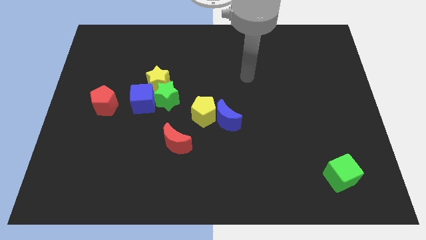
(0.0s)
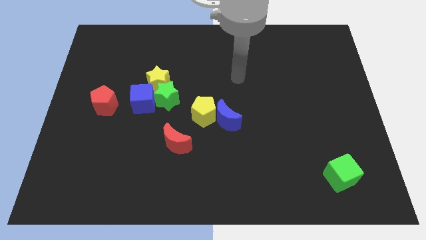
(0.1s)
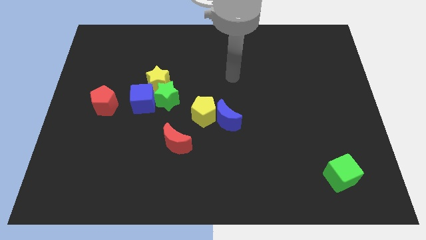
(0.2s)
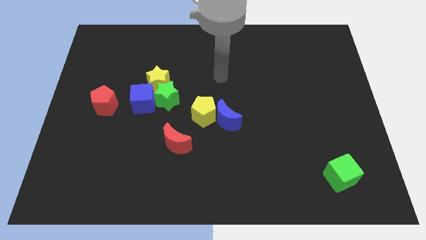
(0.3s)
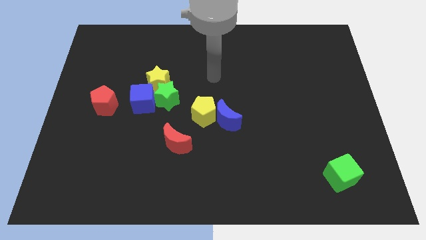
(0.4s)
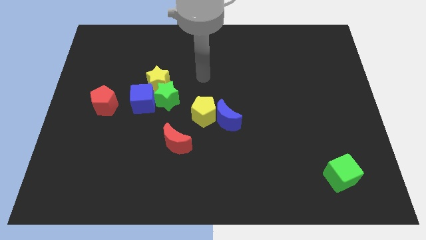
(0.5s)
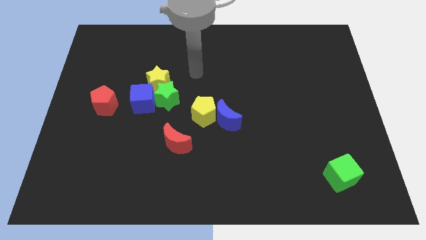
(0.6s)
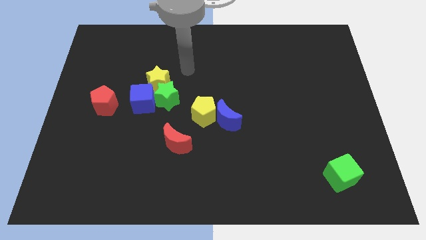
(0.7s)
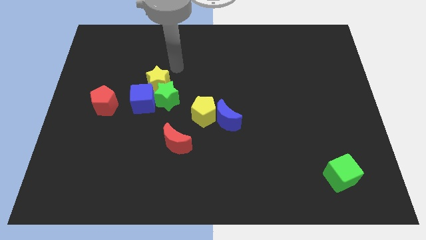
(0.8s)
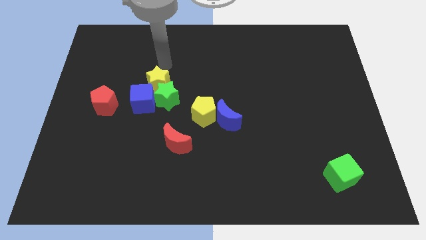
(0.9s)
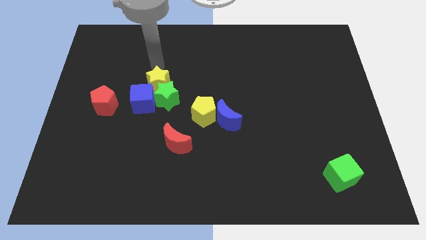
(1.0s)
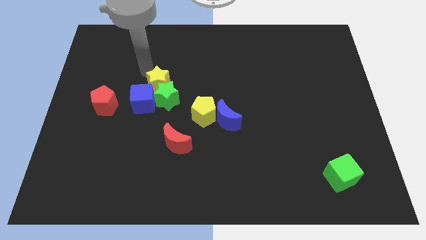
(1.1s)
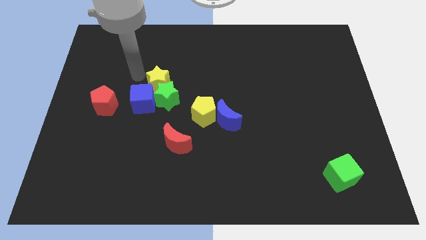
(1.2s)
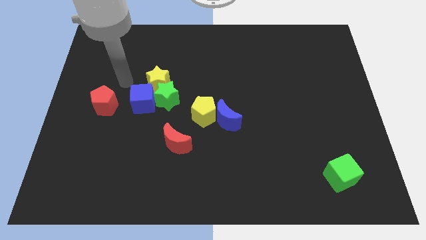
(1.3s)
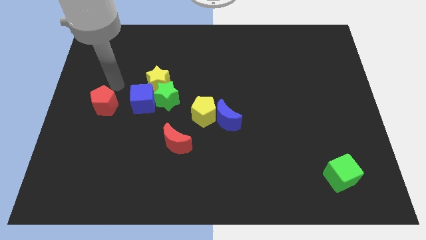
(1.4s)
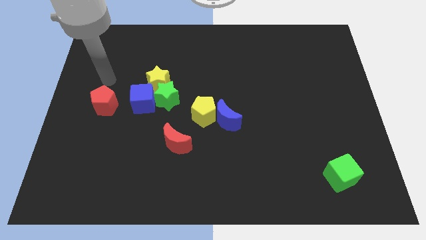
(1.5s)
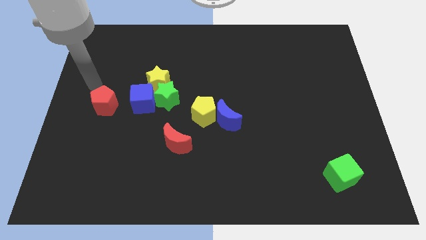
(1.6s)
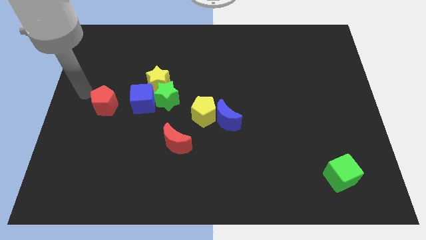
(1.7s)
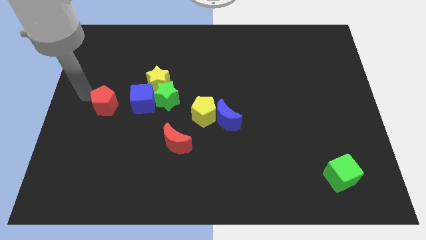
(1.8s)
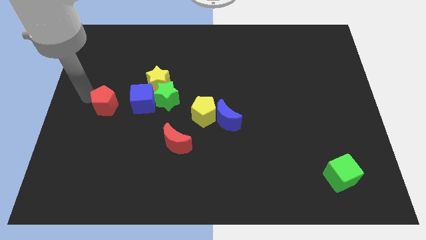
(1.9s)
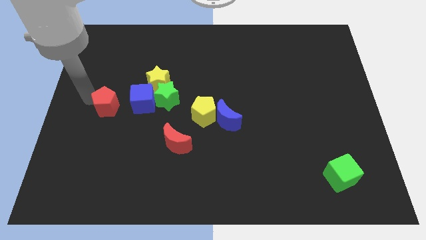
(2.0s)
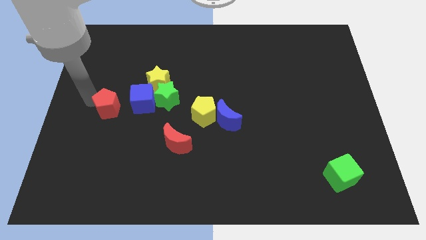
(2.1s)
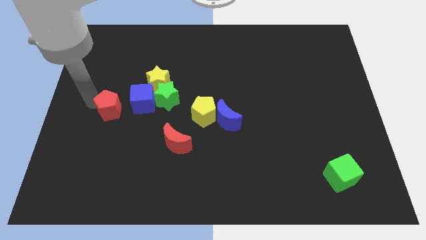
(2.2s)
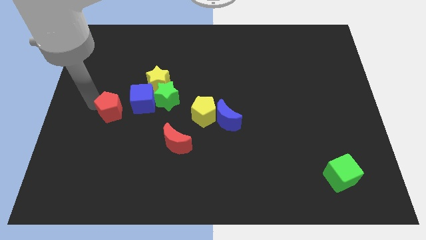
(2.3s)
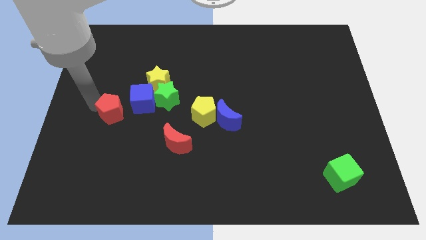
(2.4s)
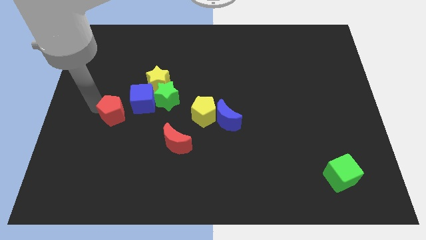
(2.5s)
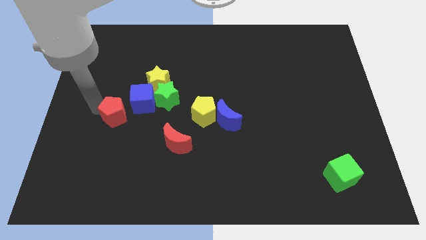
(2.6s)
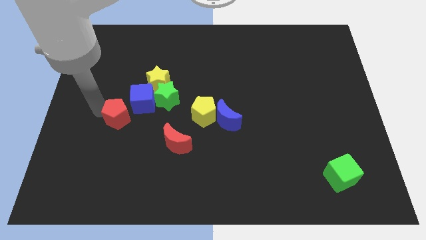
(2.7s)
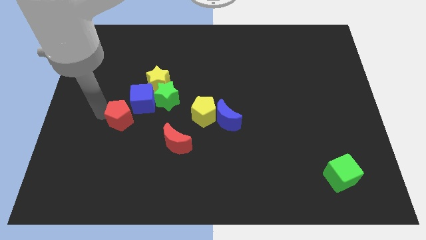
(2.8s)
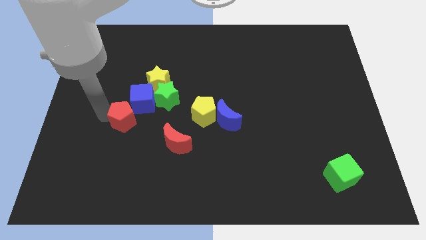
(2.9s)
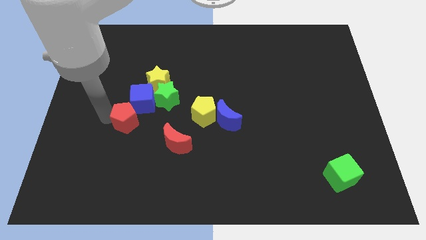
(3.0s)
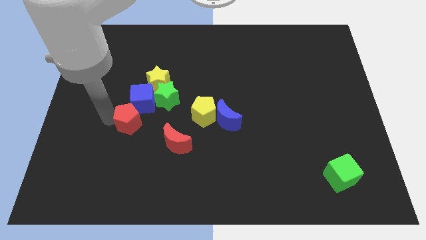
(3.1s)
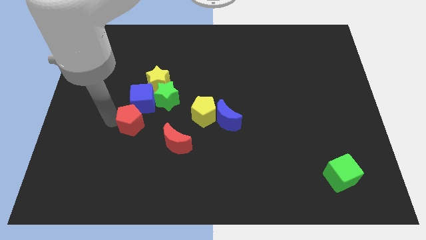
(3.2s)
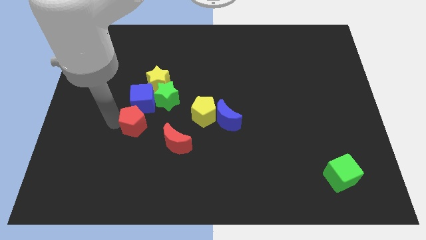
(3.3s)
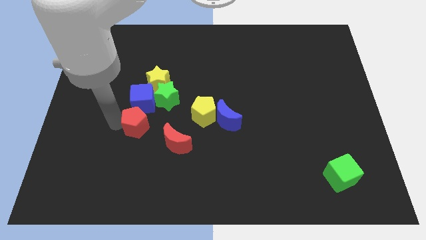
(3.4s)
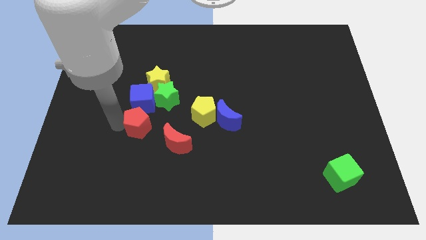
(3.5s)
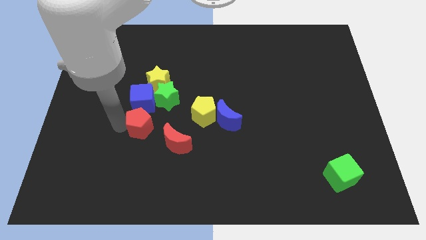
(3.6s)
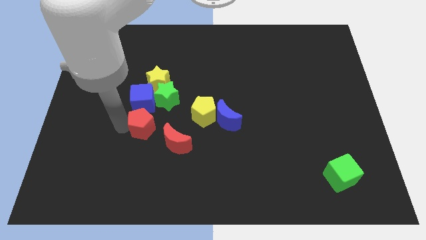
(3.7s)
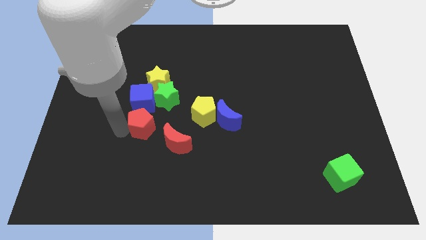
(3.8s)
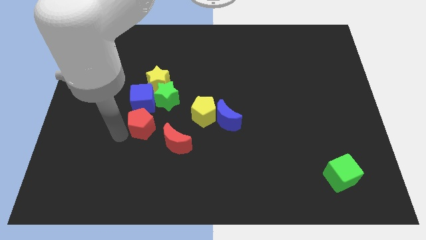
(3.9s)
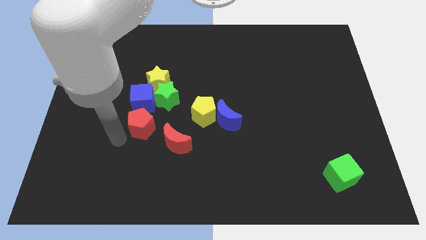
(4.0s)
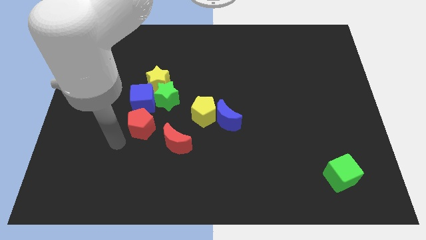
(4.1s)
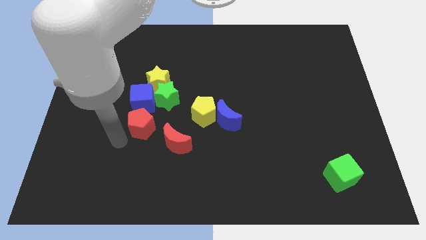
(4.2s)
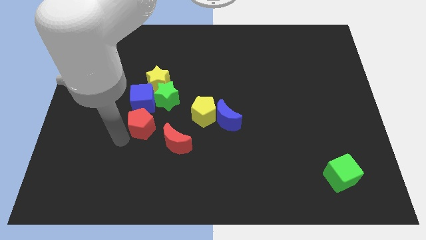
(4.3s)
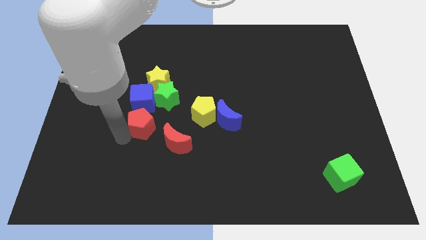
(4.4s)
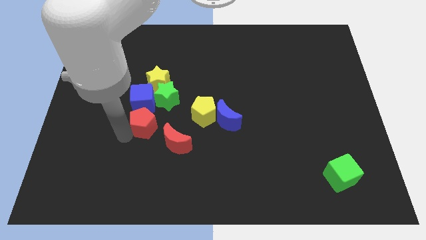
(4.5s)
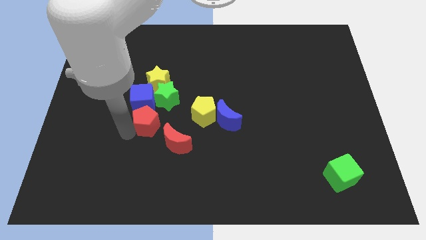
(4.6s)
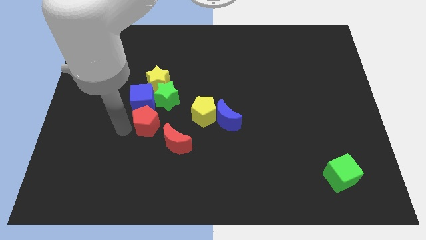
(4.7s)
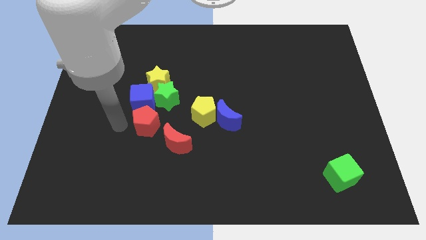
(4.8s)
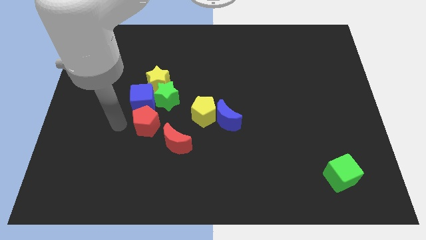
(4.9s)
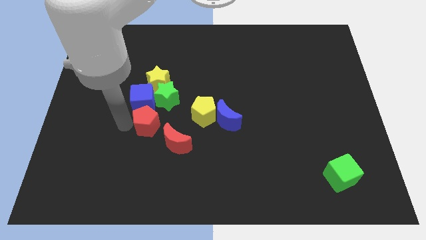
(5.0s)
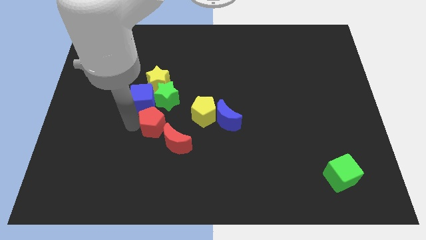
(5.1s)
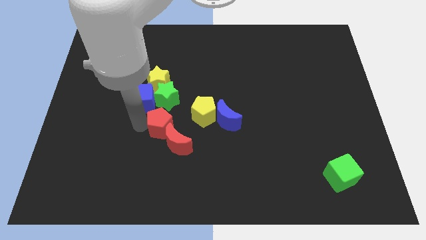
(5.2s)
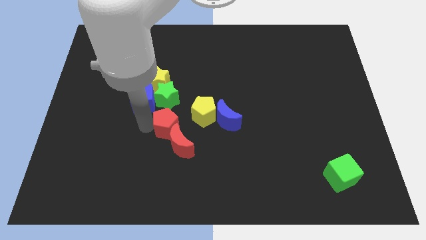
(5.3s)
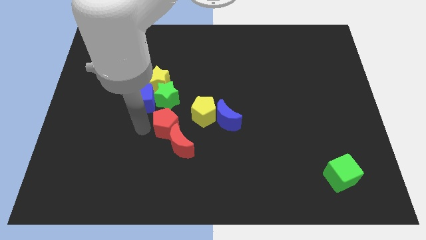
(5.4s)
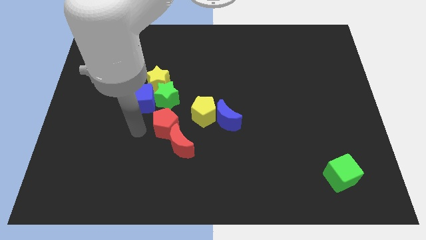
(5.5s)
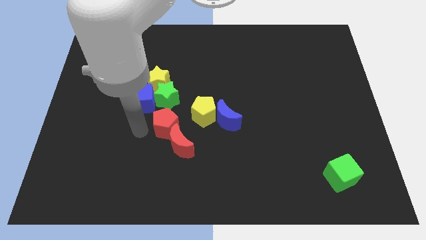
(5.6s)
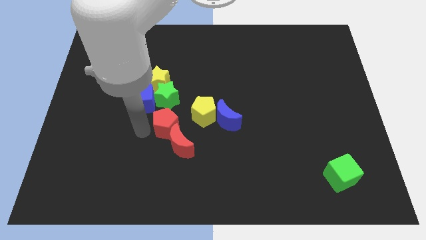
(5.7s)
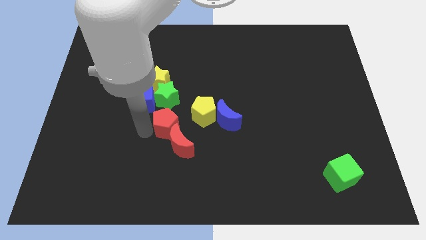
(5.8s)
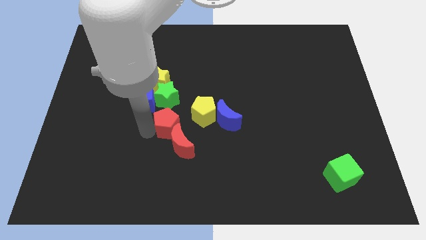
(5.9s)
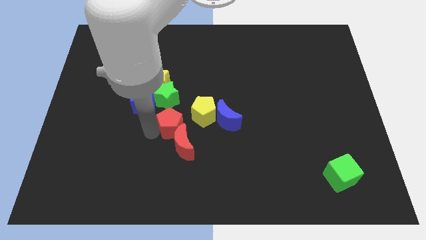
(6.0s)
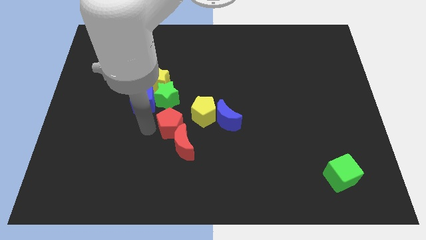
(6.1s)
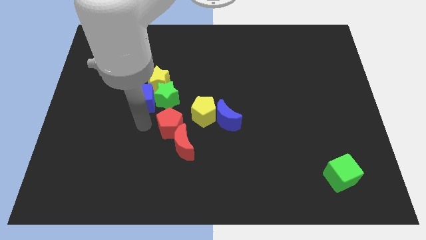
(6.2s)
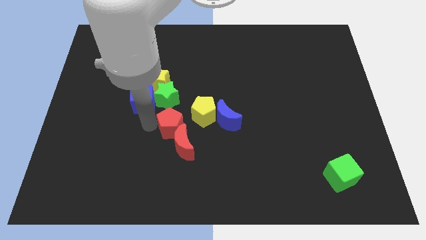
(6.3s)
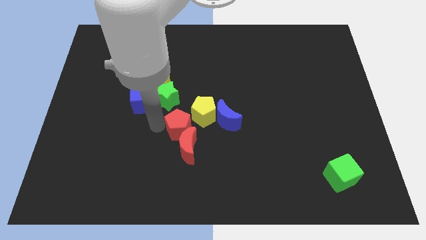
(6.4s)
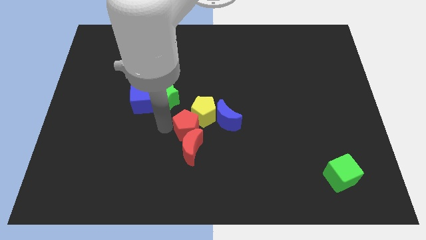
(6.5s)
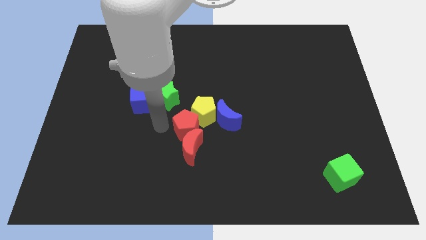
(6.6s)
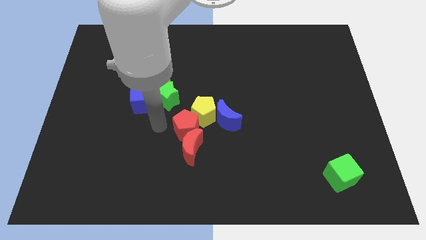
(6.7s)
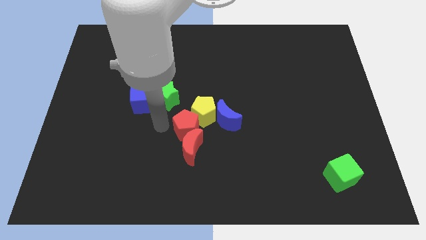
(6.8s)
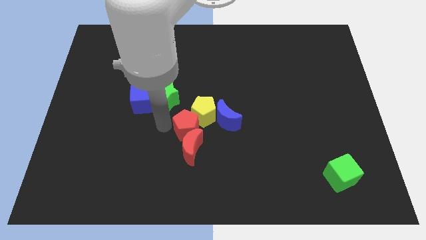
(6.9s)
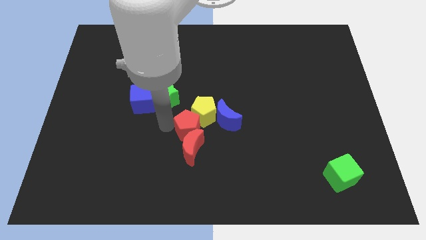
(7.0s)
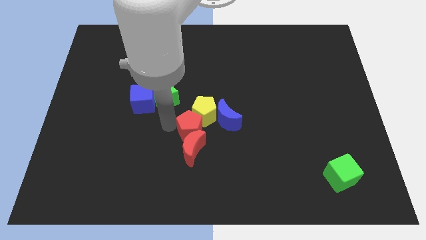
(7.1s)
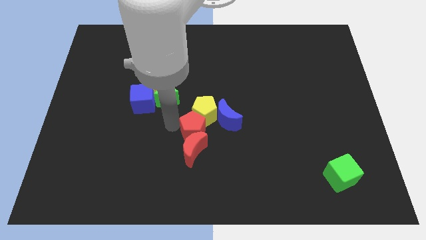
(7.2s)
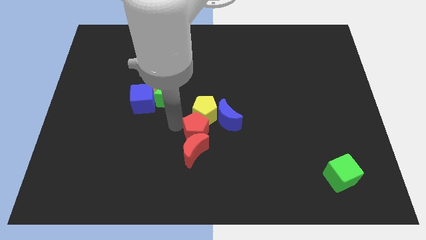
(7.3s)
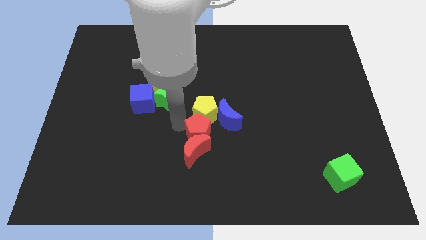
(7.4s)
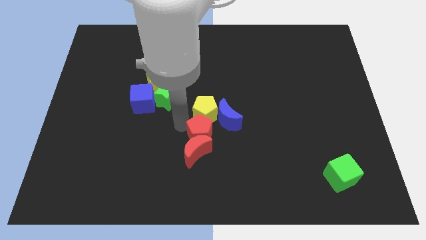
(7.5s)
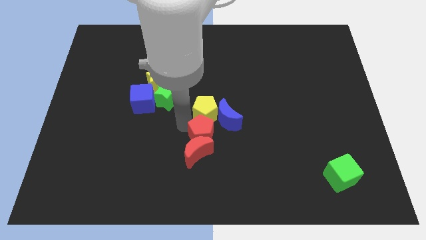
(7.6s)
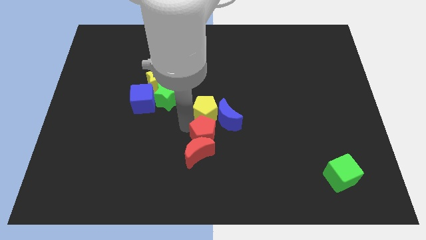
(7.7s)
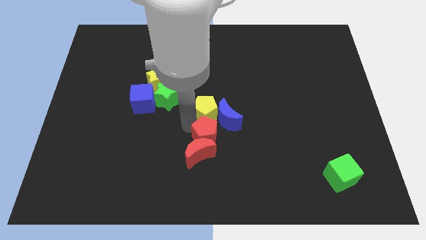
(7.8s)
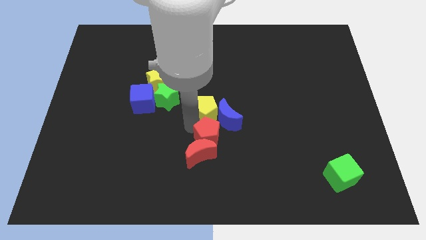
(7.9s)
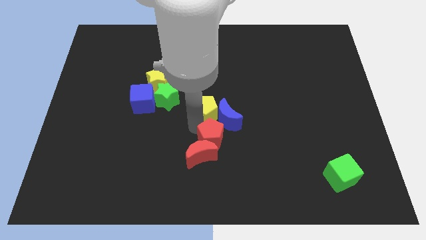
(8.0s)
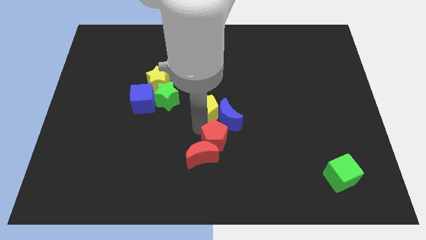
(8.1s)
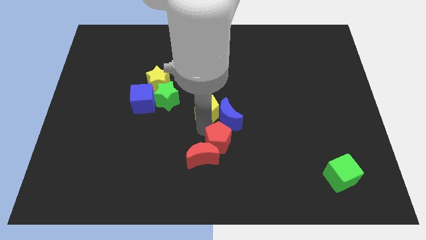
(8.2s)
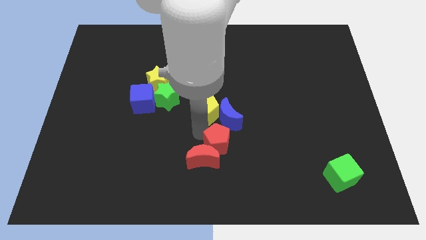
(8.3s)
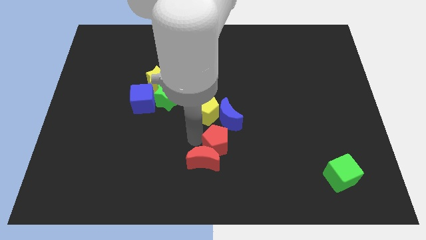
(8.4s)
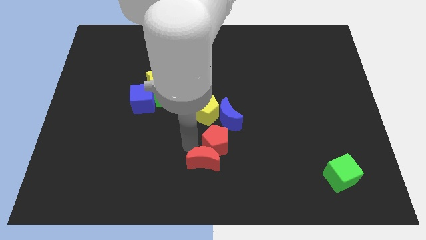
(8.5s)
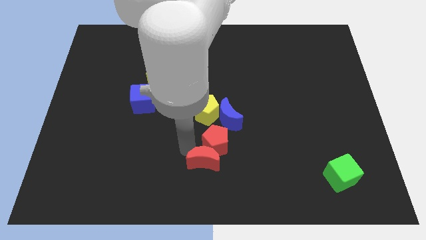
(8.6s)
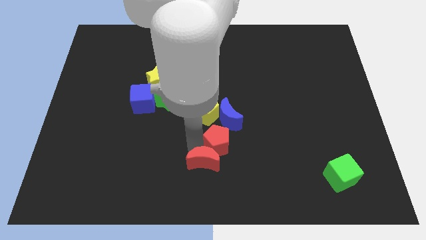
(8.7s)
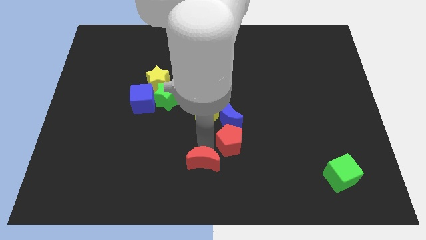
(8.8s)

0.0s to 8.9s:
put the red pentagon to the bottom right of the blue moon
